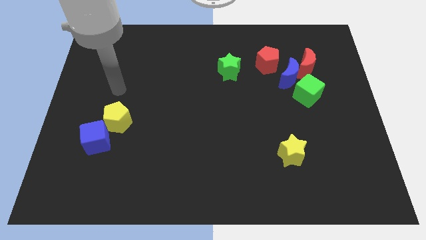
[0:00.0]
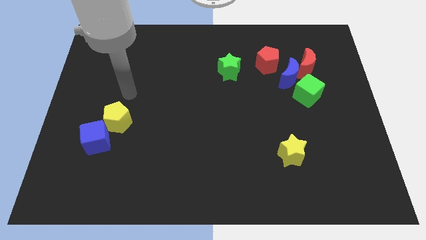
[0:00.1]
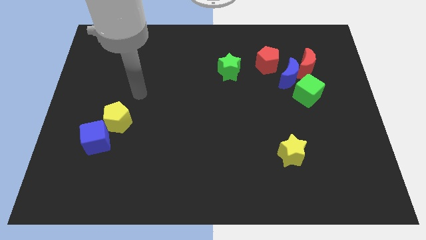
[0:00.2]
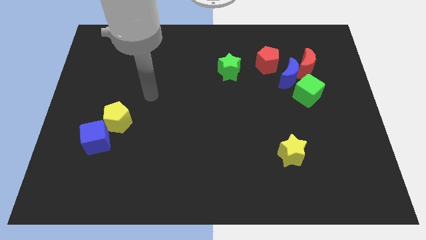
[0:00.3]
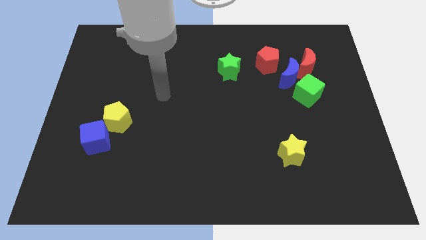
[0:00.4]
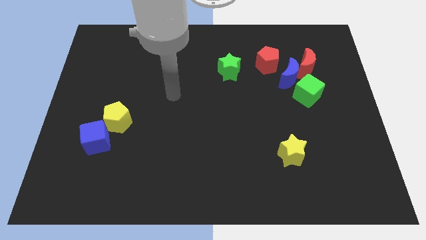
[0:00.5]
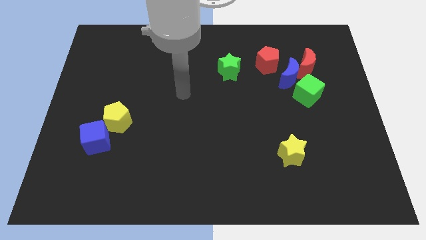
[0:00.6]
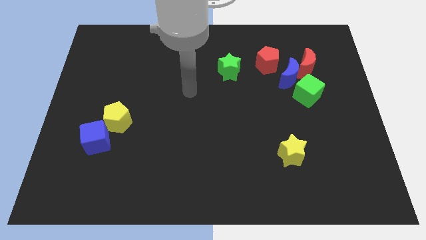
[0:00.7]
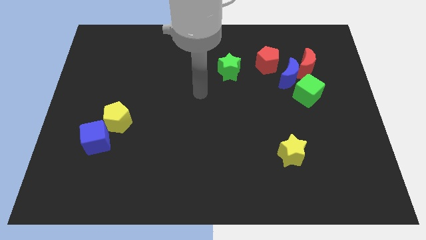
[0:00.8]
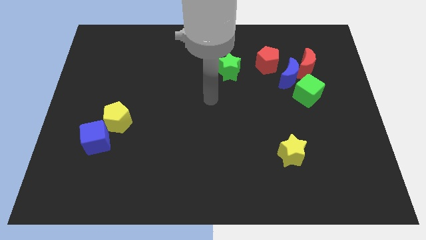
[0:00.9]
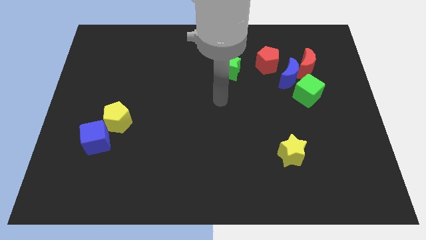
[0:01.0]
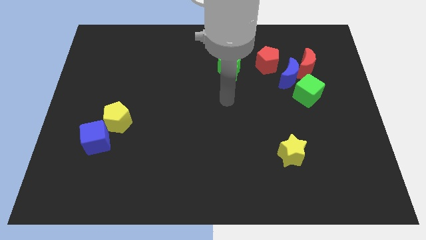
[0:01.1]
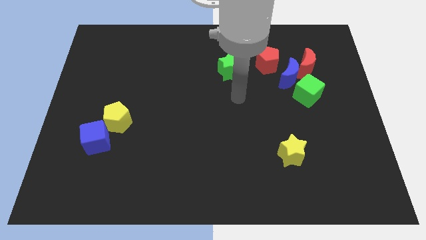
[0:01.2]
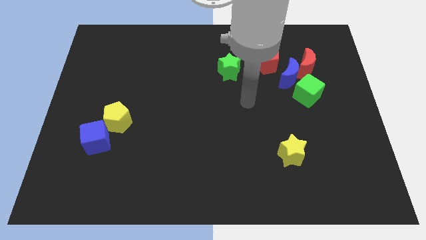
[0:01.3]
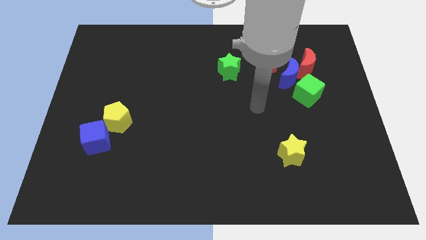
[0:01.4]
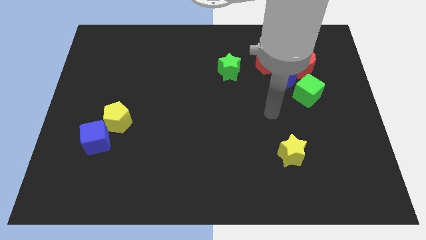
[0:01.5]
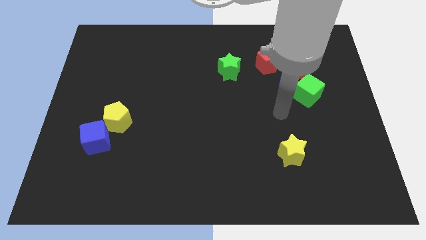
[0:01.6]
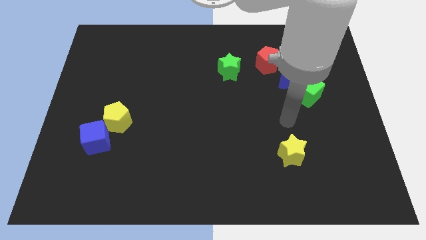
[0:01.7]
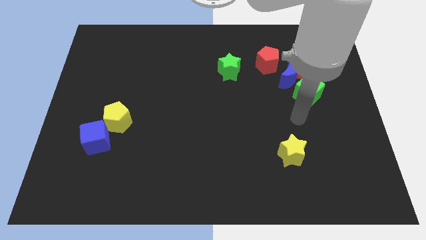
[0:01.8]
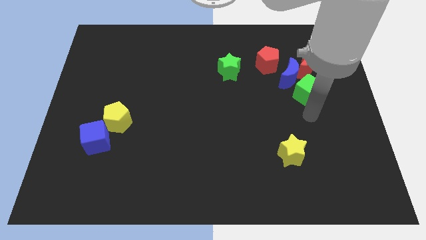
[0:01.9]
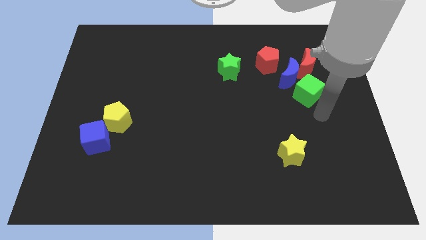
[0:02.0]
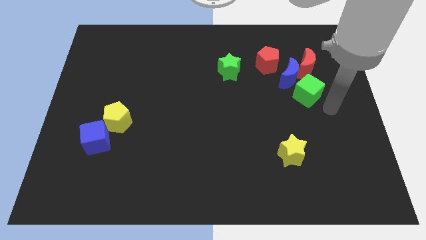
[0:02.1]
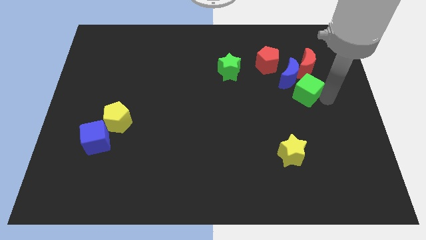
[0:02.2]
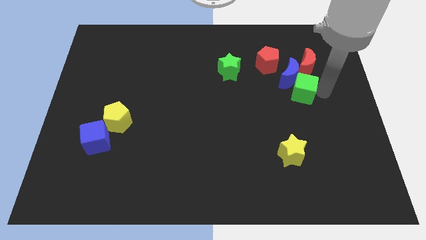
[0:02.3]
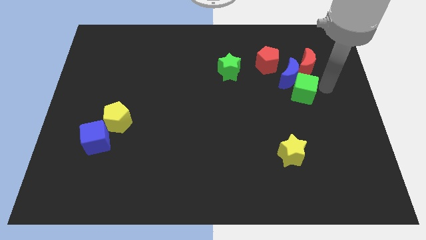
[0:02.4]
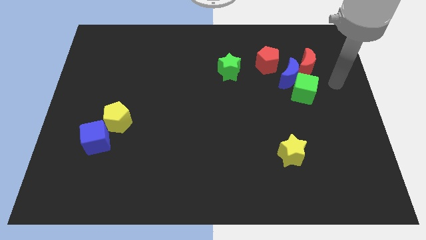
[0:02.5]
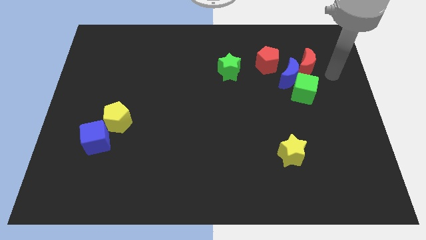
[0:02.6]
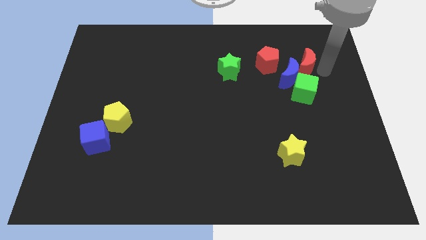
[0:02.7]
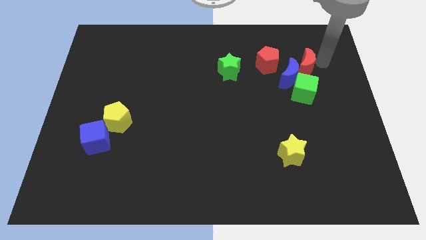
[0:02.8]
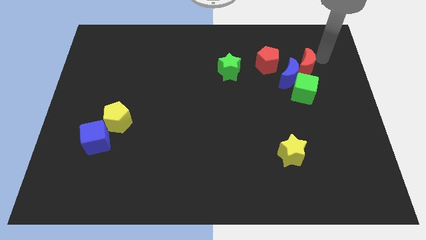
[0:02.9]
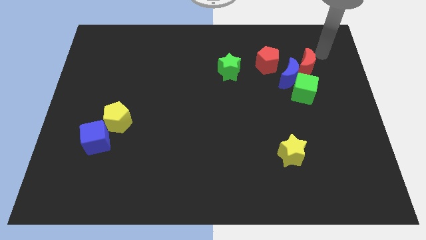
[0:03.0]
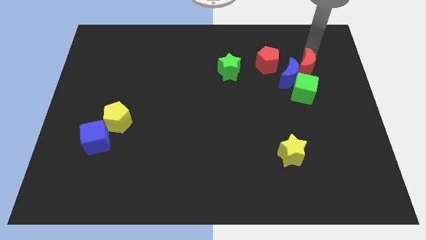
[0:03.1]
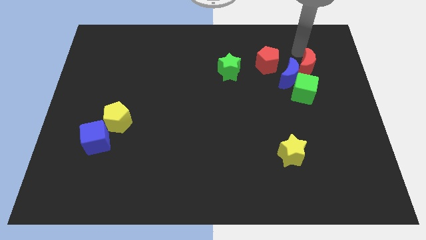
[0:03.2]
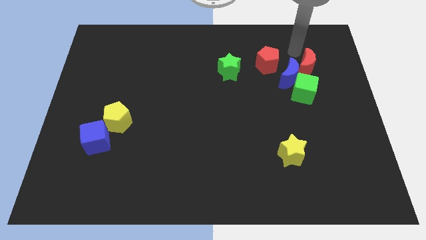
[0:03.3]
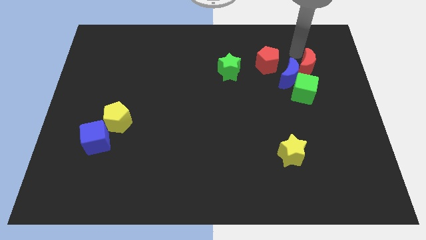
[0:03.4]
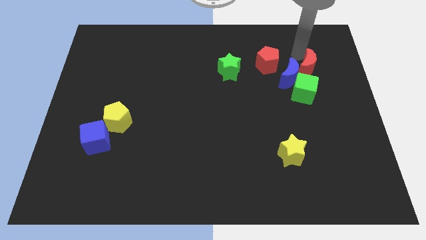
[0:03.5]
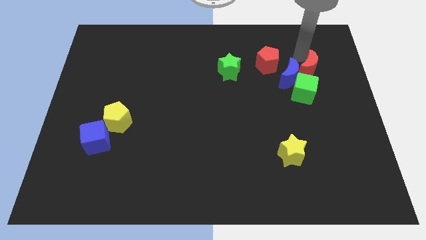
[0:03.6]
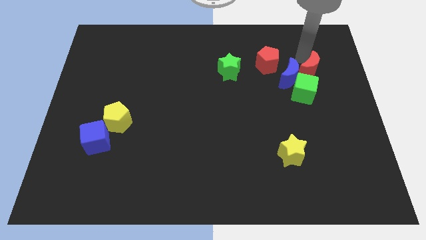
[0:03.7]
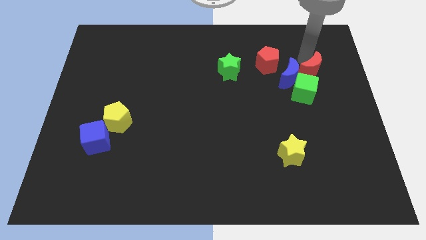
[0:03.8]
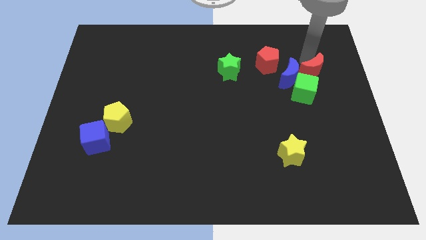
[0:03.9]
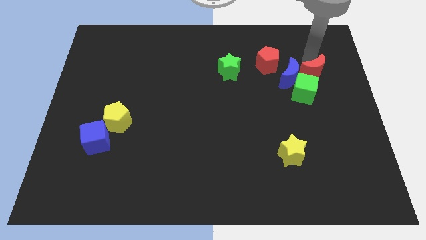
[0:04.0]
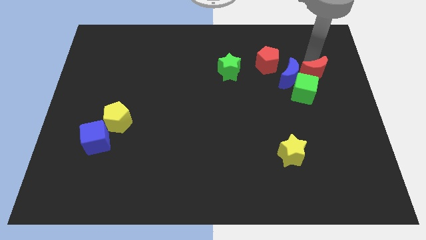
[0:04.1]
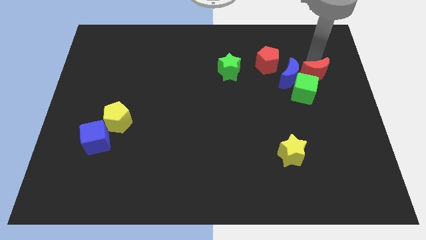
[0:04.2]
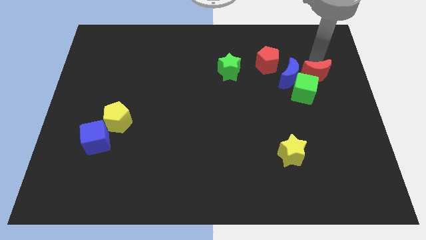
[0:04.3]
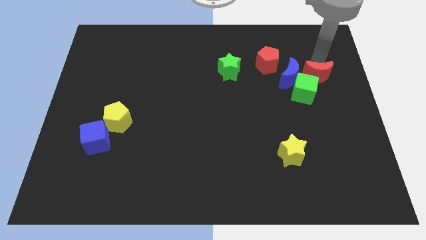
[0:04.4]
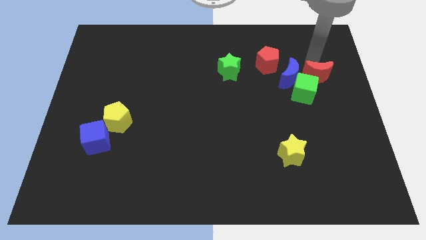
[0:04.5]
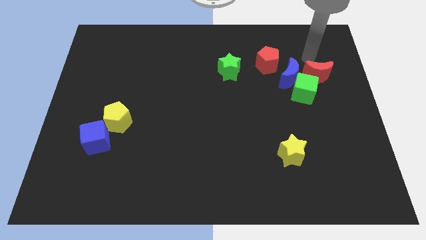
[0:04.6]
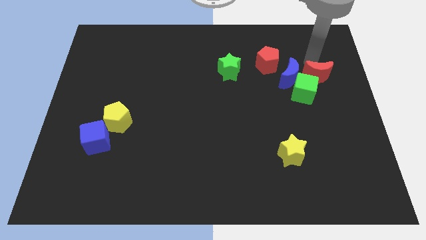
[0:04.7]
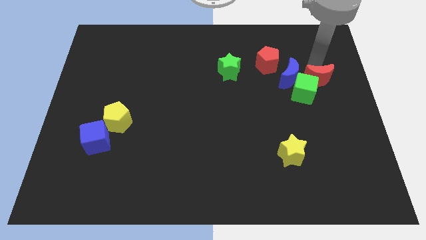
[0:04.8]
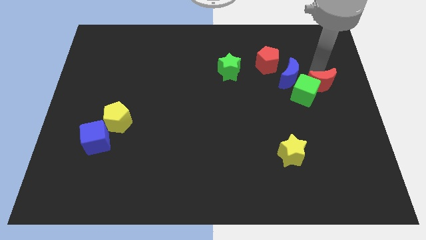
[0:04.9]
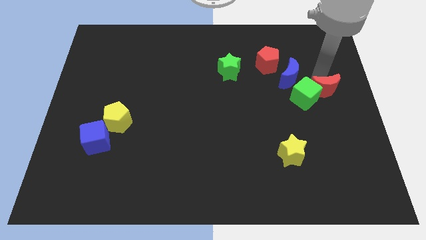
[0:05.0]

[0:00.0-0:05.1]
move the red moon slightly down

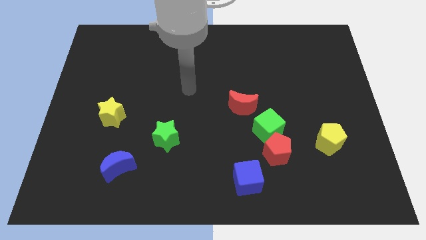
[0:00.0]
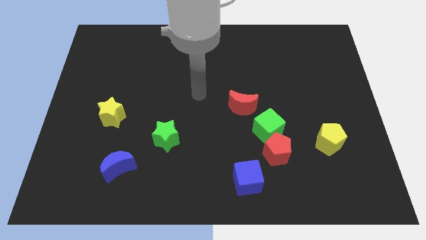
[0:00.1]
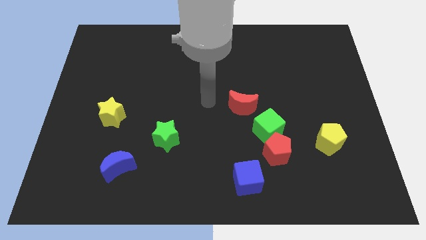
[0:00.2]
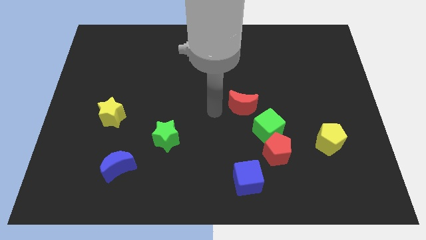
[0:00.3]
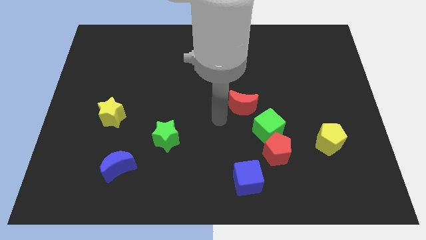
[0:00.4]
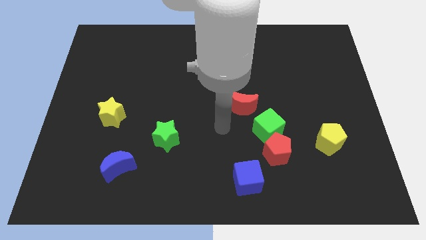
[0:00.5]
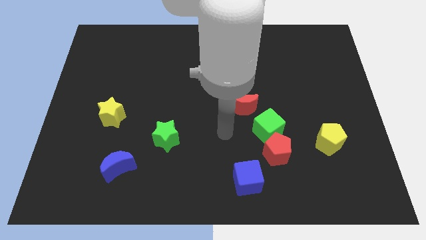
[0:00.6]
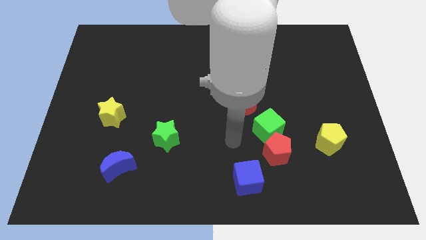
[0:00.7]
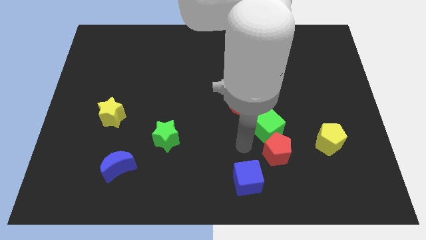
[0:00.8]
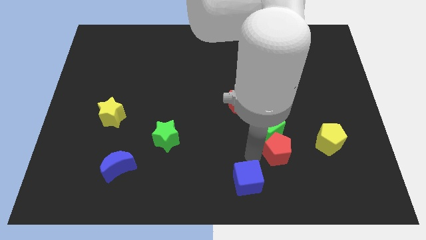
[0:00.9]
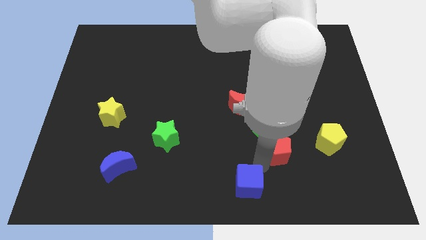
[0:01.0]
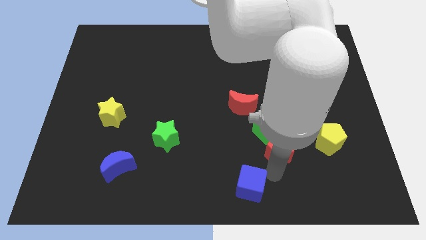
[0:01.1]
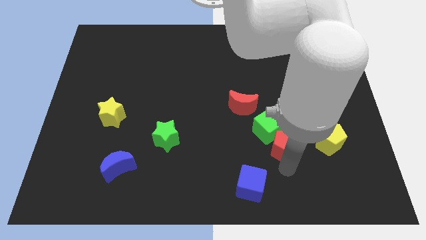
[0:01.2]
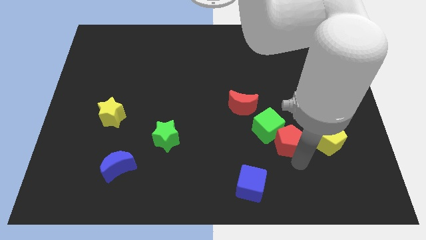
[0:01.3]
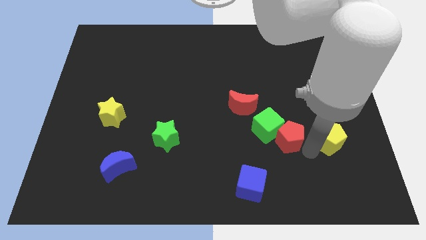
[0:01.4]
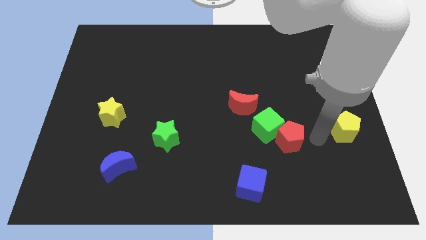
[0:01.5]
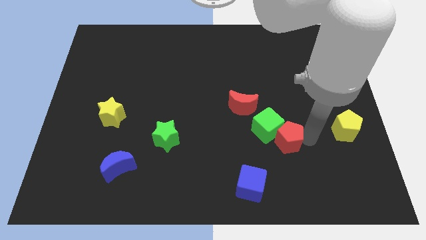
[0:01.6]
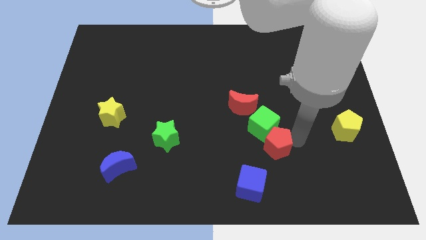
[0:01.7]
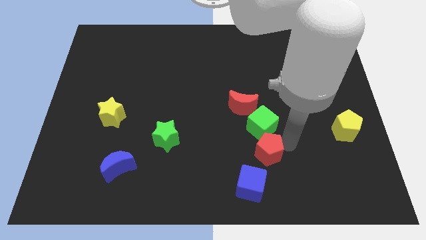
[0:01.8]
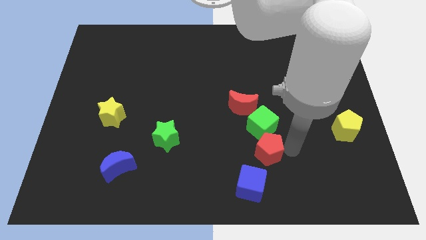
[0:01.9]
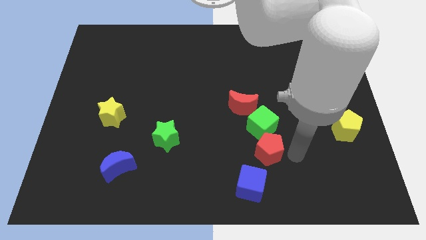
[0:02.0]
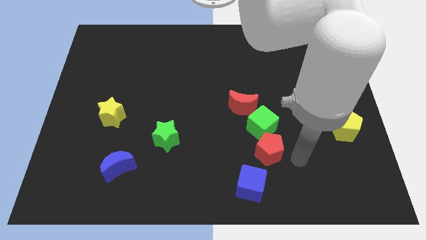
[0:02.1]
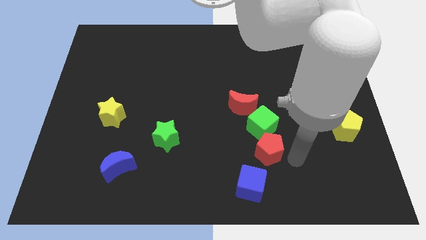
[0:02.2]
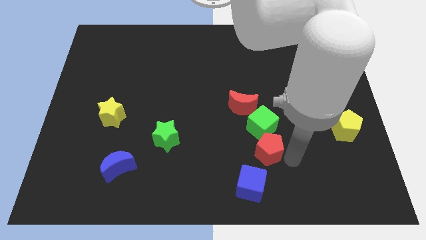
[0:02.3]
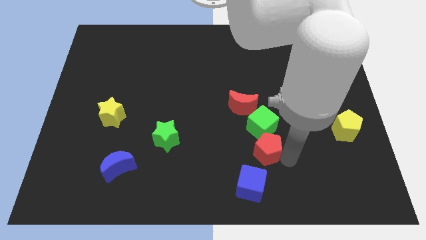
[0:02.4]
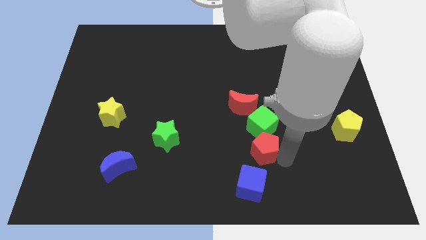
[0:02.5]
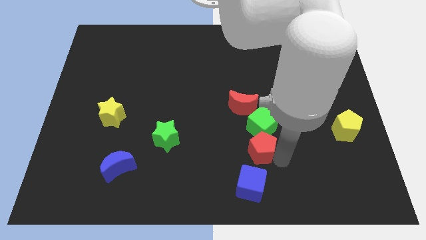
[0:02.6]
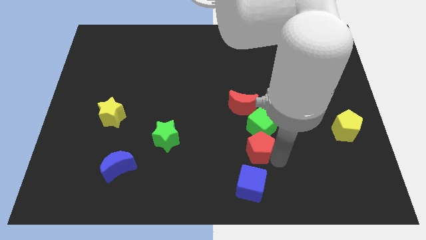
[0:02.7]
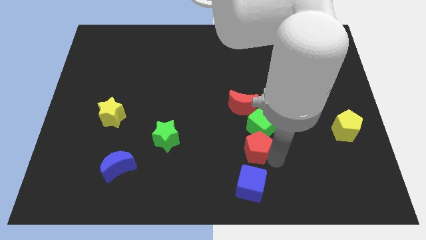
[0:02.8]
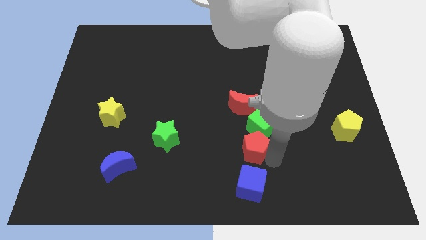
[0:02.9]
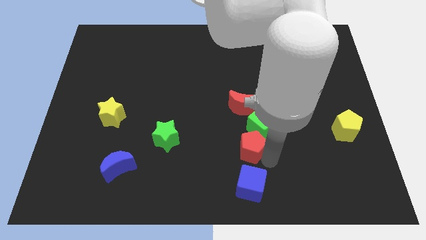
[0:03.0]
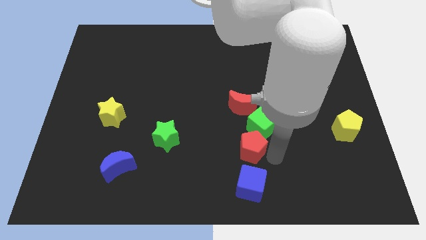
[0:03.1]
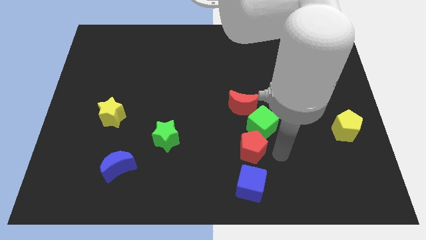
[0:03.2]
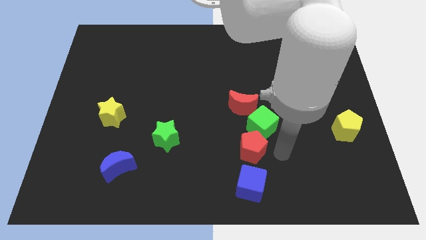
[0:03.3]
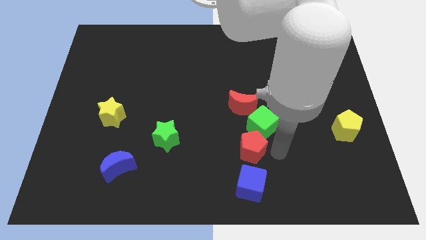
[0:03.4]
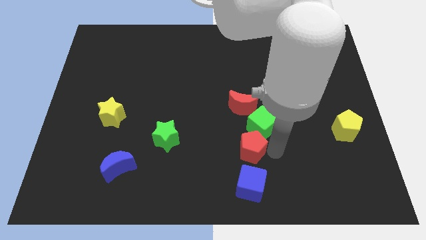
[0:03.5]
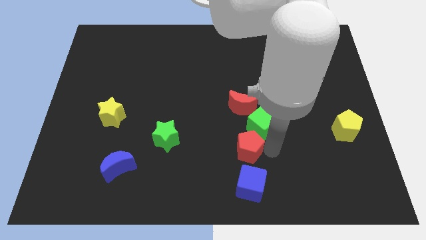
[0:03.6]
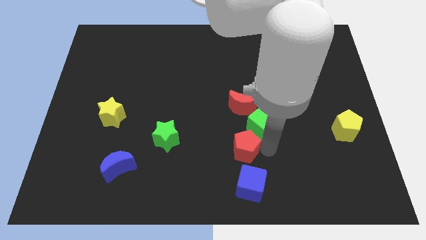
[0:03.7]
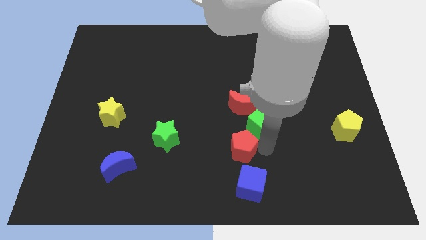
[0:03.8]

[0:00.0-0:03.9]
slide the red pentagon left somewhat
